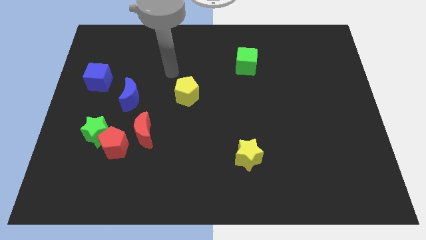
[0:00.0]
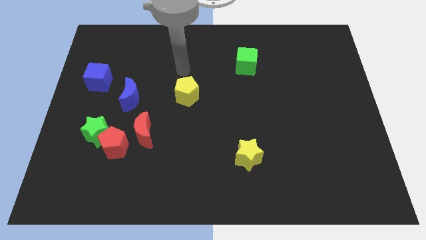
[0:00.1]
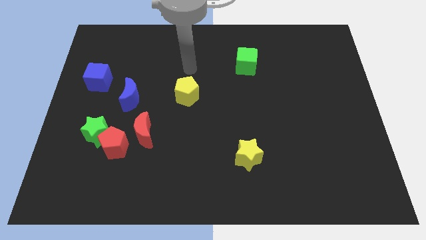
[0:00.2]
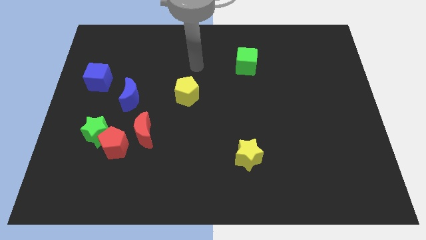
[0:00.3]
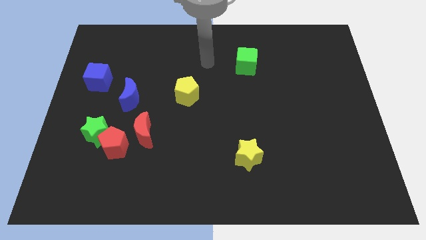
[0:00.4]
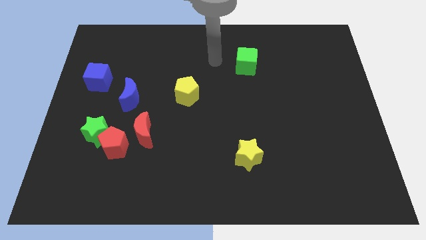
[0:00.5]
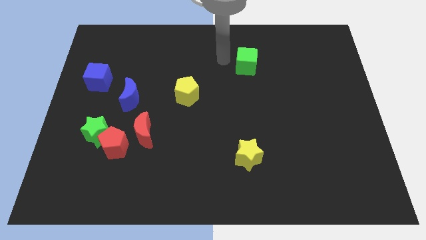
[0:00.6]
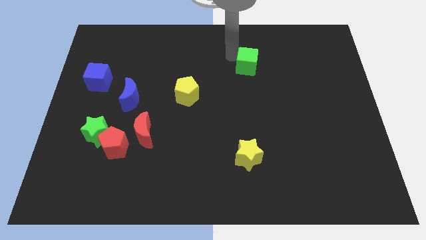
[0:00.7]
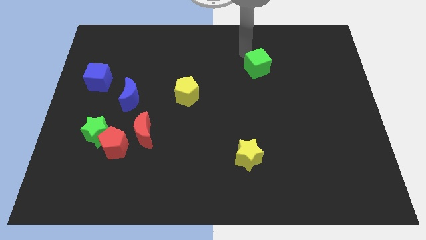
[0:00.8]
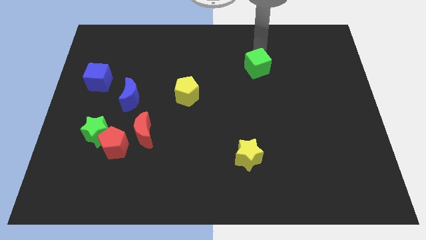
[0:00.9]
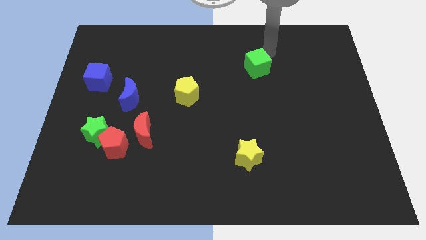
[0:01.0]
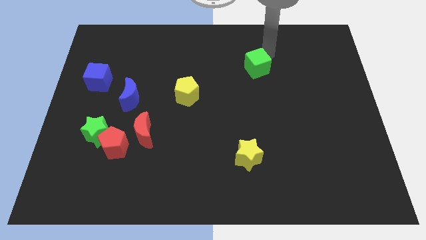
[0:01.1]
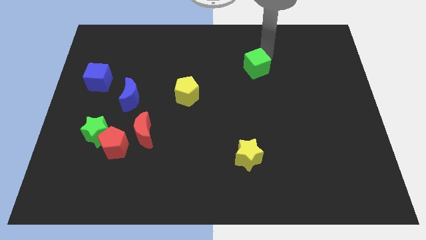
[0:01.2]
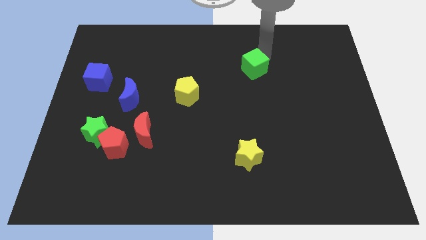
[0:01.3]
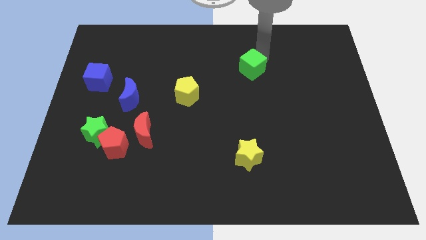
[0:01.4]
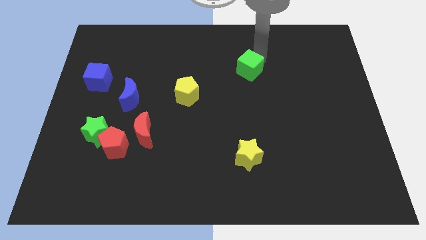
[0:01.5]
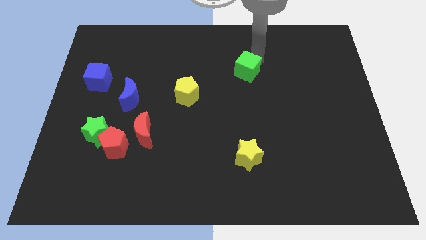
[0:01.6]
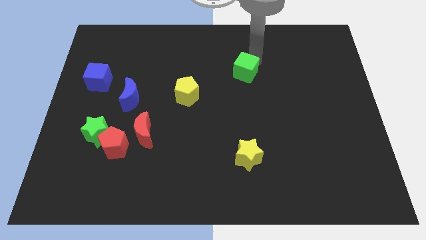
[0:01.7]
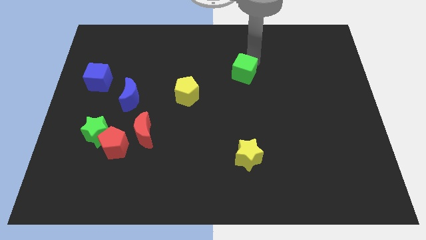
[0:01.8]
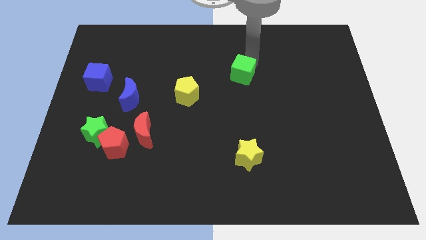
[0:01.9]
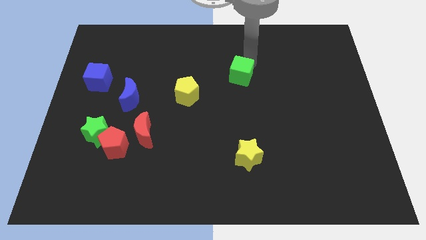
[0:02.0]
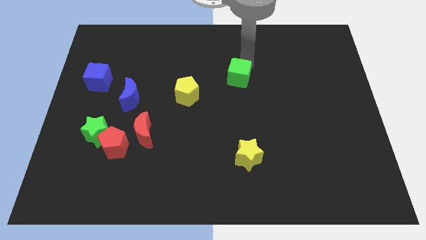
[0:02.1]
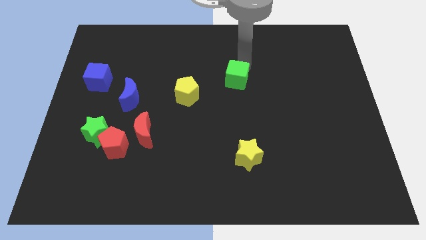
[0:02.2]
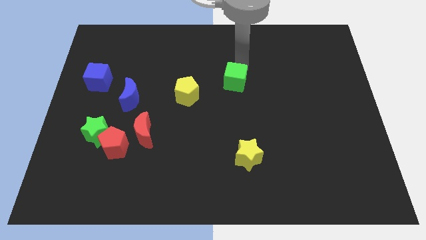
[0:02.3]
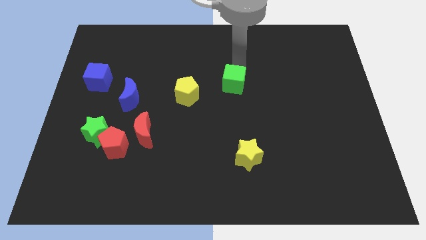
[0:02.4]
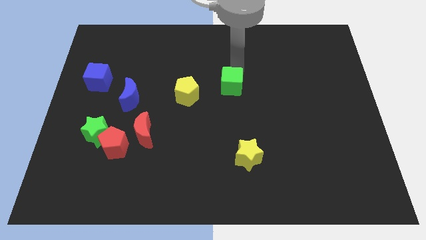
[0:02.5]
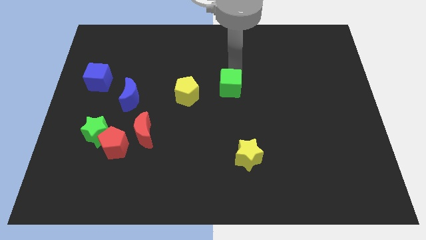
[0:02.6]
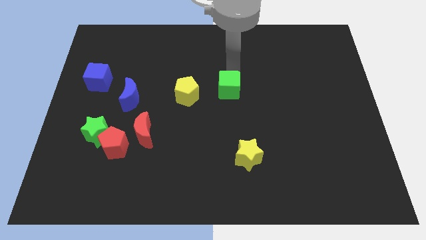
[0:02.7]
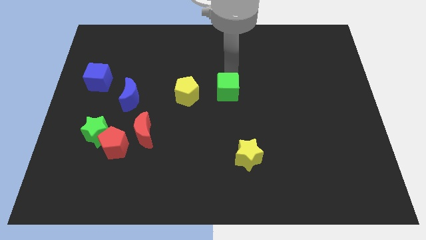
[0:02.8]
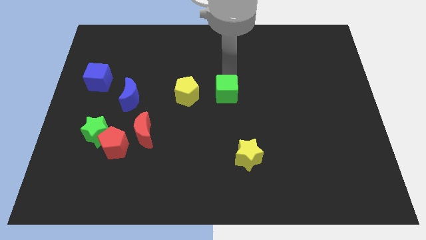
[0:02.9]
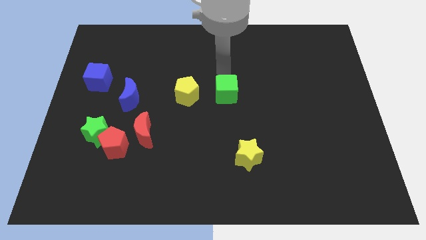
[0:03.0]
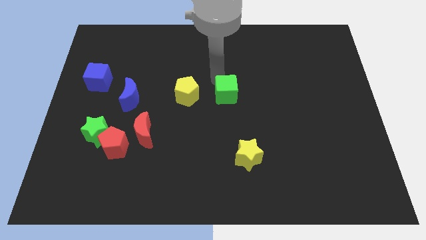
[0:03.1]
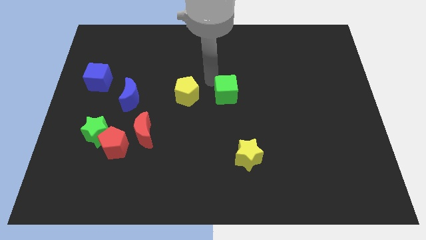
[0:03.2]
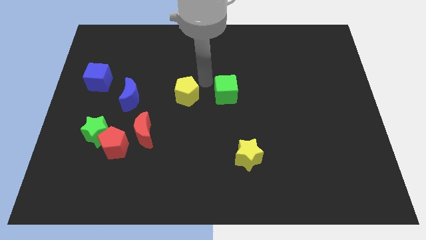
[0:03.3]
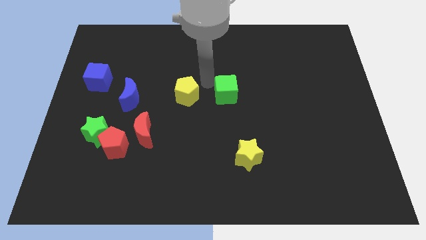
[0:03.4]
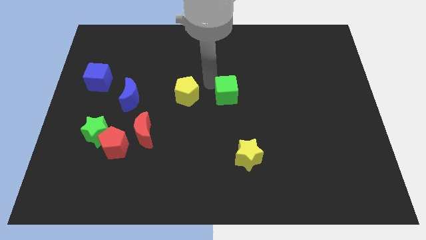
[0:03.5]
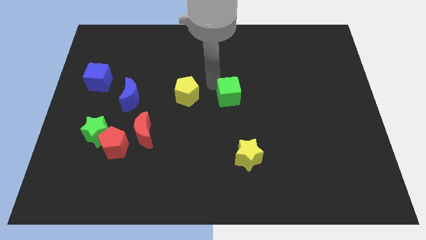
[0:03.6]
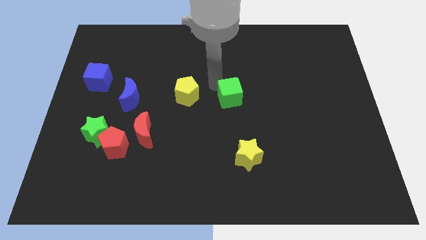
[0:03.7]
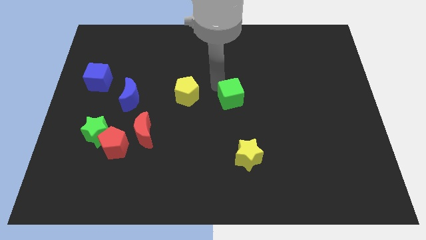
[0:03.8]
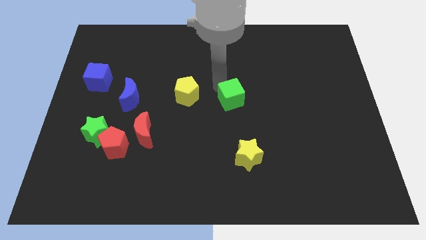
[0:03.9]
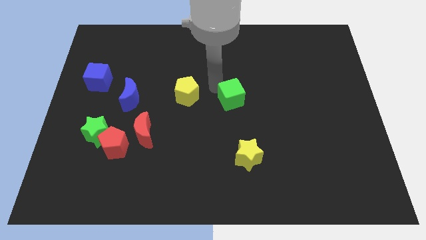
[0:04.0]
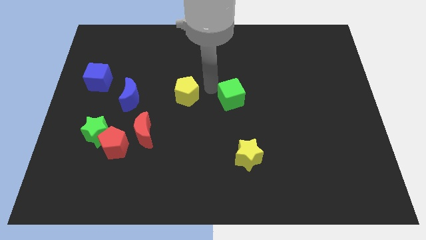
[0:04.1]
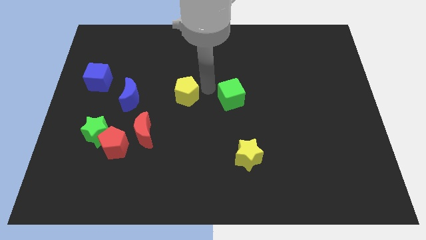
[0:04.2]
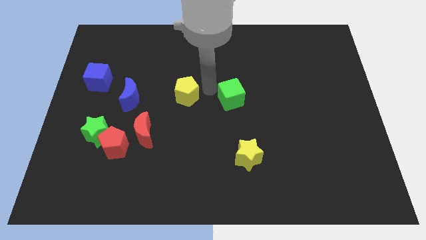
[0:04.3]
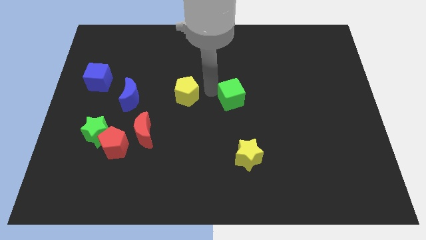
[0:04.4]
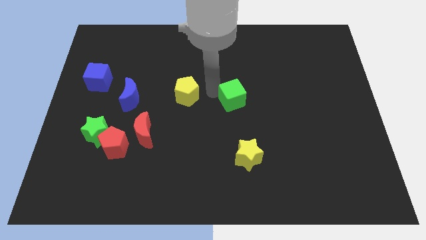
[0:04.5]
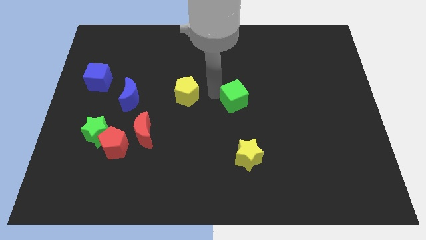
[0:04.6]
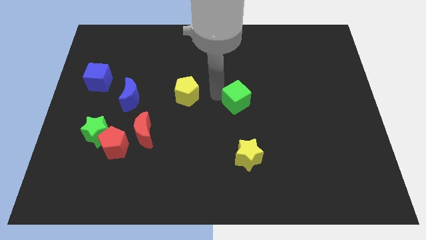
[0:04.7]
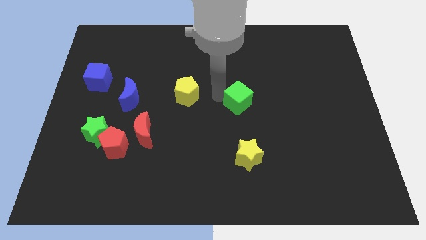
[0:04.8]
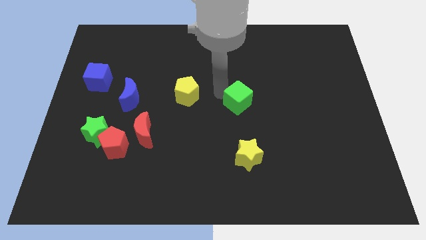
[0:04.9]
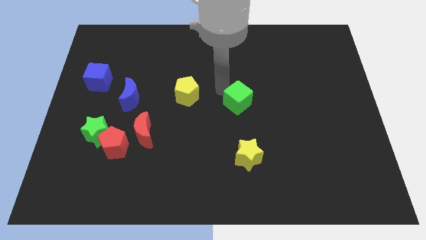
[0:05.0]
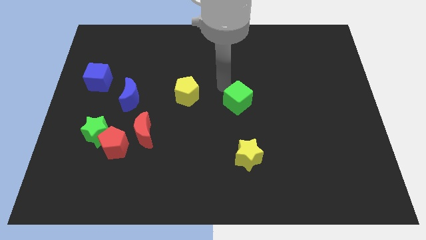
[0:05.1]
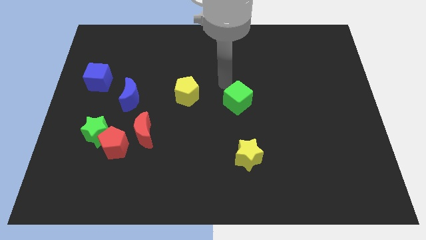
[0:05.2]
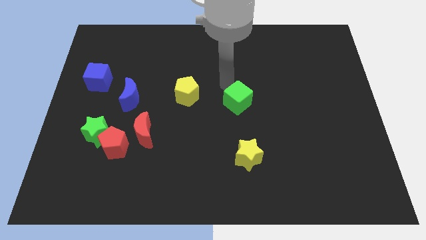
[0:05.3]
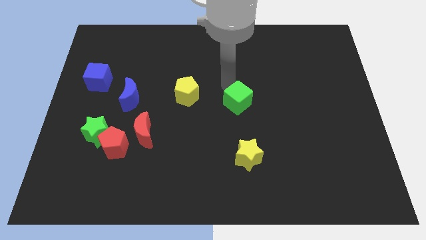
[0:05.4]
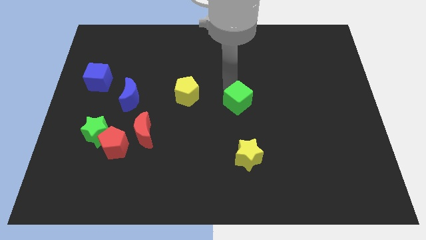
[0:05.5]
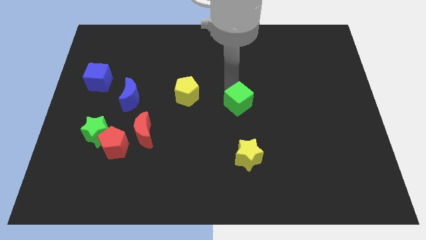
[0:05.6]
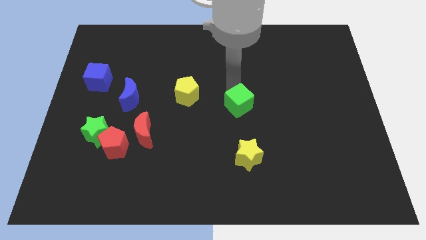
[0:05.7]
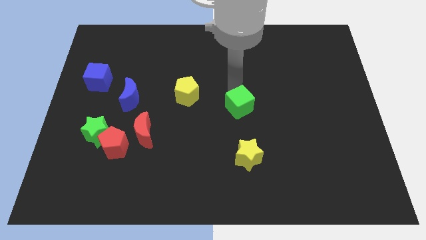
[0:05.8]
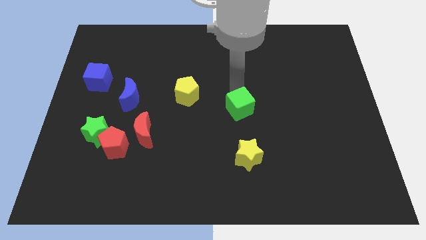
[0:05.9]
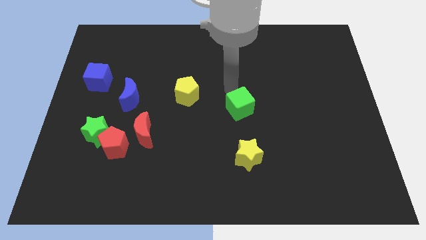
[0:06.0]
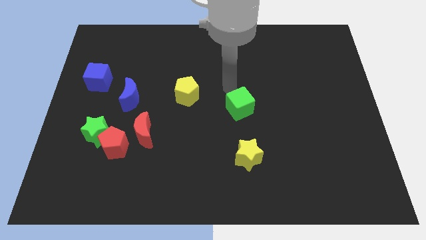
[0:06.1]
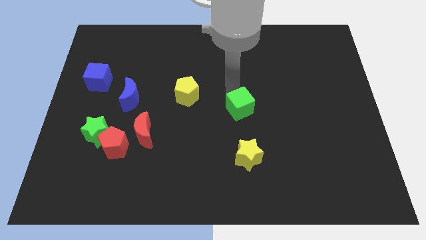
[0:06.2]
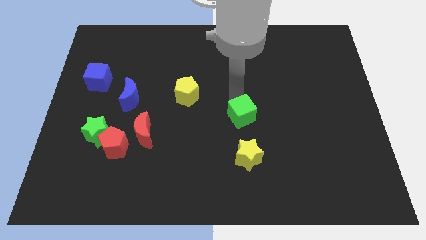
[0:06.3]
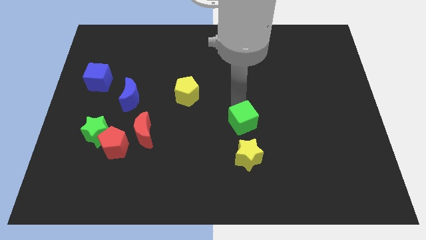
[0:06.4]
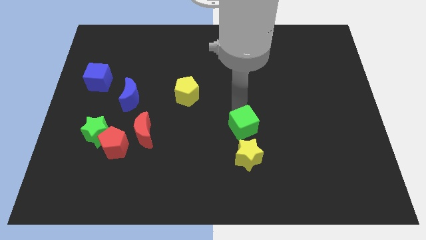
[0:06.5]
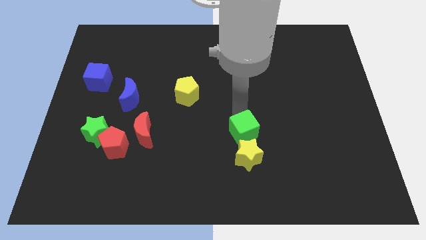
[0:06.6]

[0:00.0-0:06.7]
slide the green cube downwards

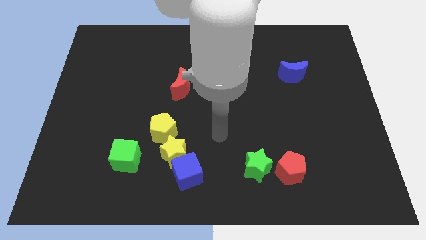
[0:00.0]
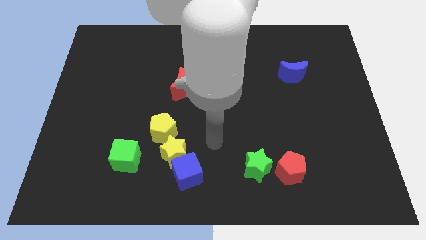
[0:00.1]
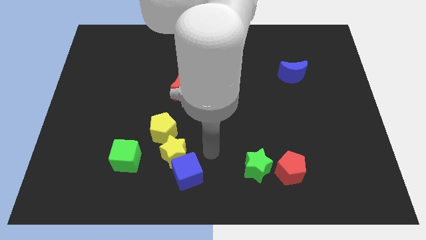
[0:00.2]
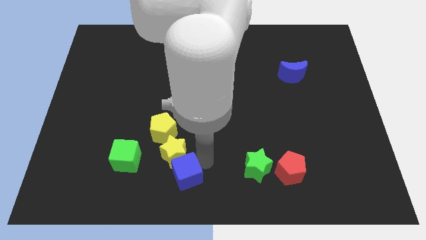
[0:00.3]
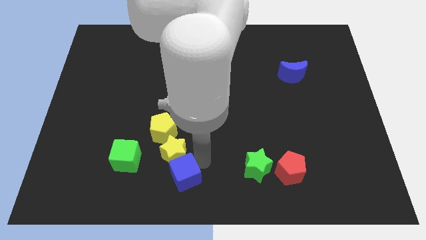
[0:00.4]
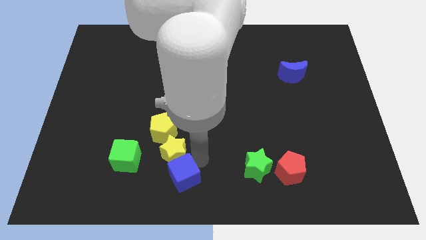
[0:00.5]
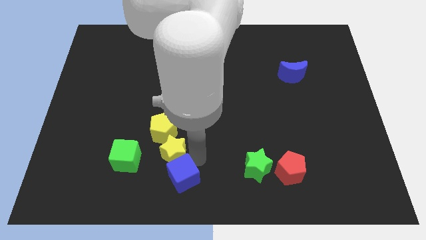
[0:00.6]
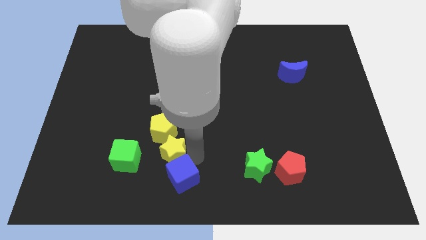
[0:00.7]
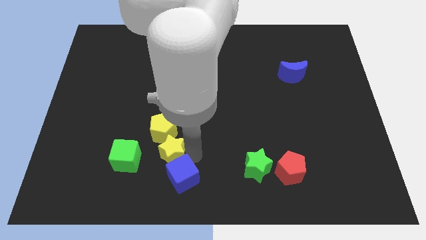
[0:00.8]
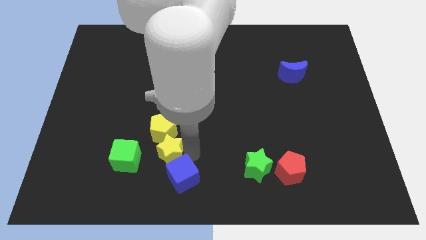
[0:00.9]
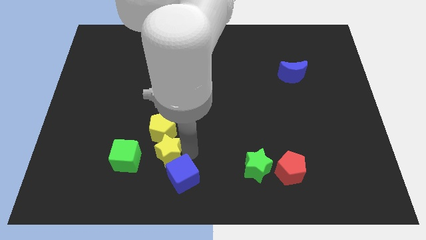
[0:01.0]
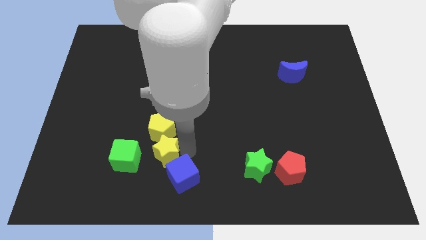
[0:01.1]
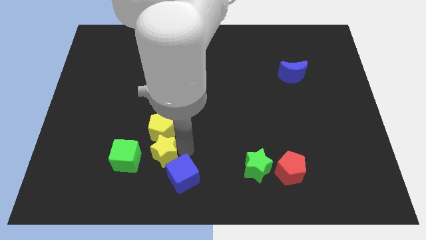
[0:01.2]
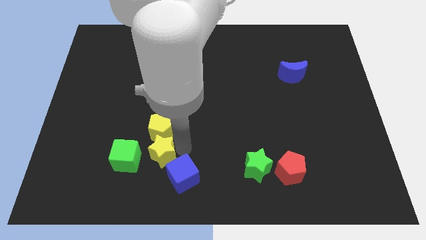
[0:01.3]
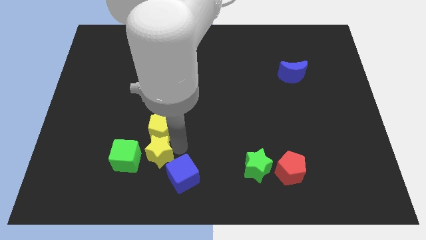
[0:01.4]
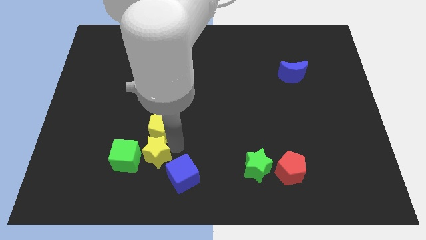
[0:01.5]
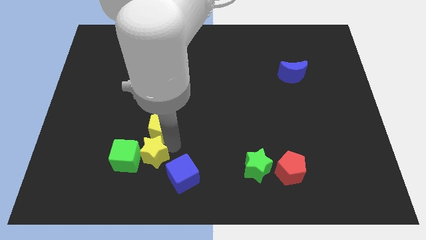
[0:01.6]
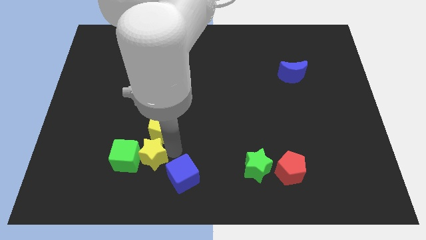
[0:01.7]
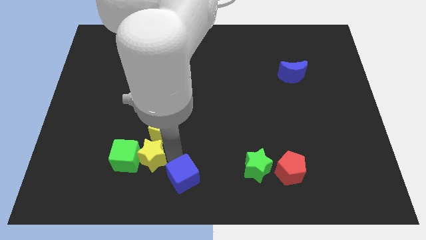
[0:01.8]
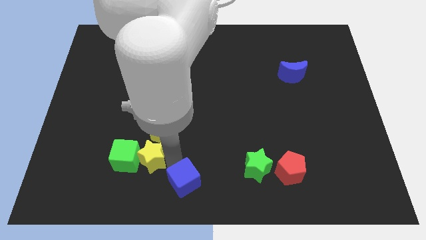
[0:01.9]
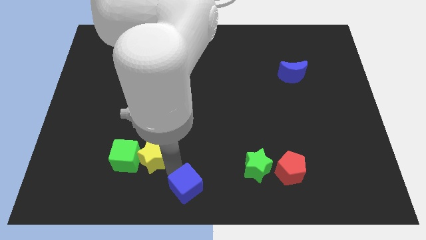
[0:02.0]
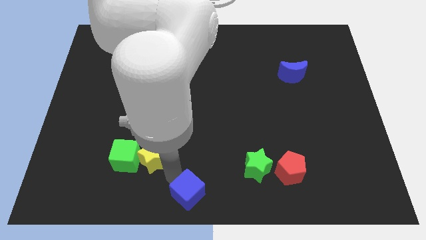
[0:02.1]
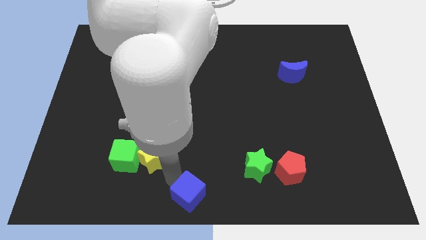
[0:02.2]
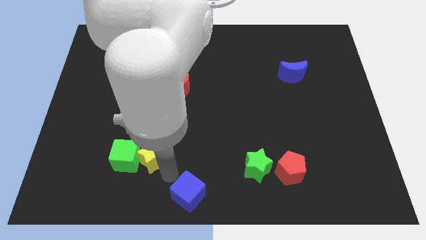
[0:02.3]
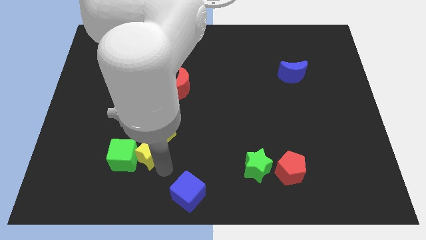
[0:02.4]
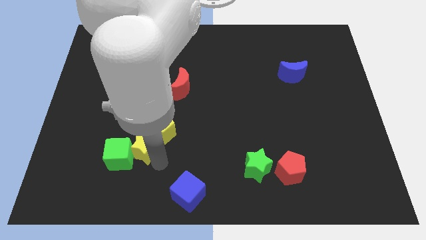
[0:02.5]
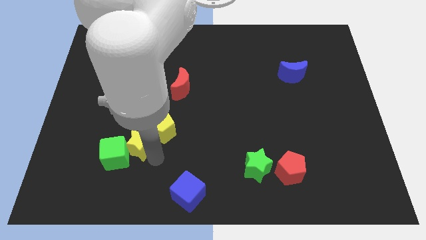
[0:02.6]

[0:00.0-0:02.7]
slide the yellow star slightly to the left
